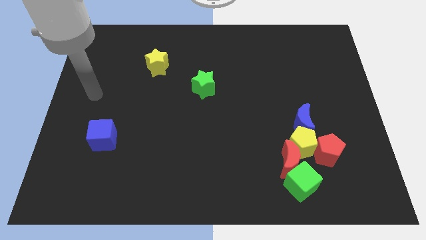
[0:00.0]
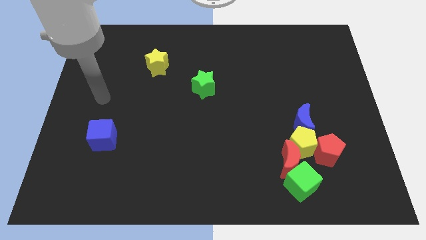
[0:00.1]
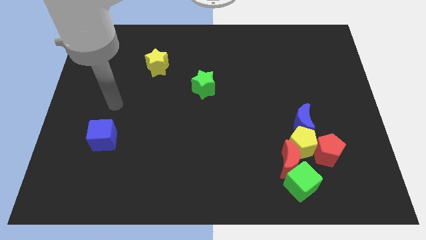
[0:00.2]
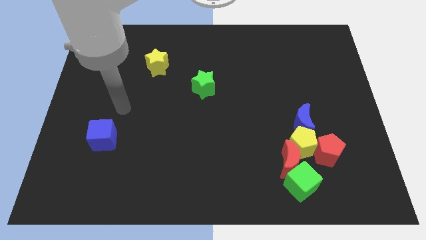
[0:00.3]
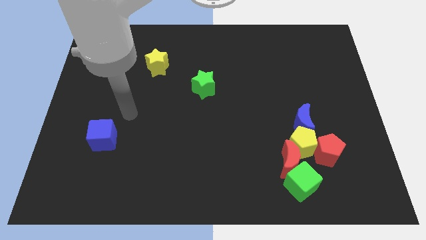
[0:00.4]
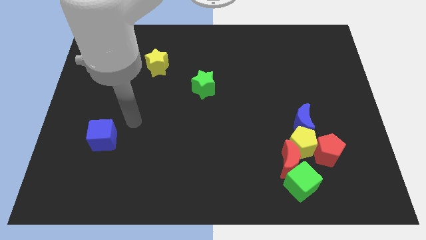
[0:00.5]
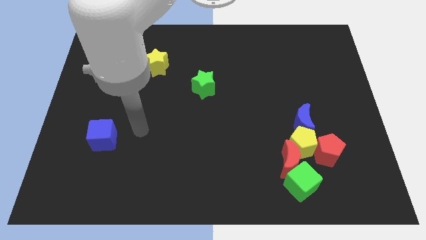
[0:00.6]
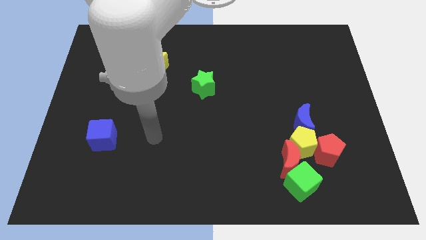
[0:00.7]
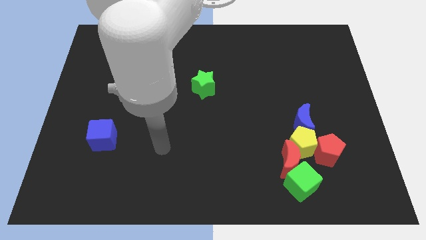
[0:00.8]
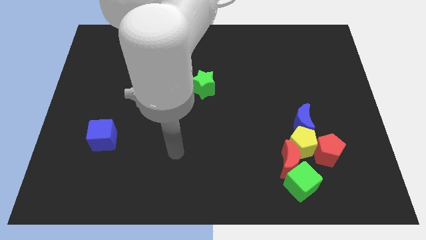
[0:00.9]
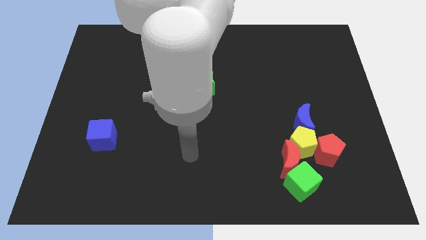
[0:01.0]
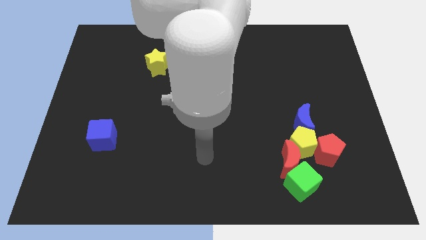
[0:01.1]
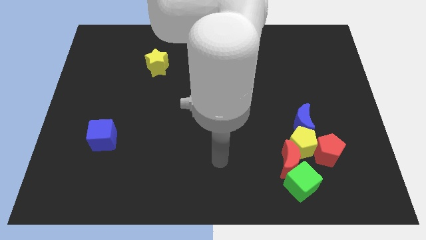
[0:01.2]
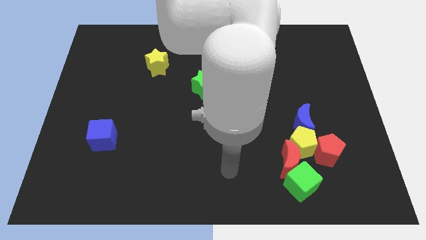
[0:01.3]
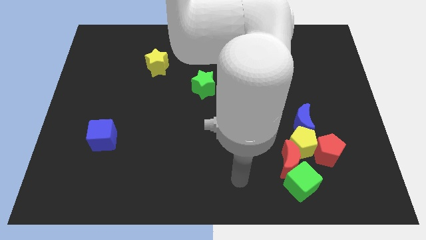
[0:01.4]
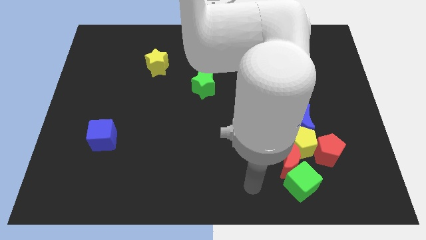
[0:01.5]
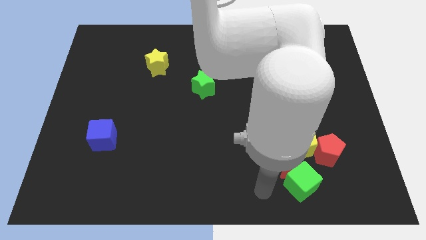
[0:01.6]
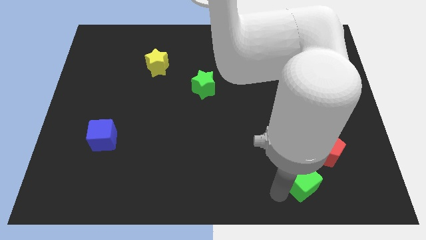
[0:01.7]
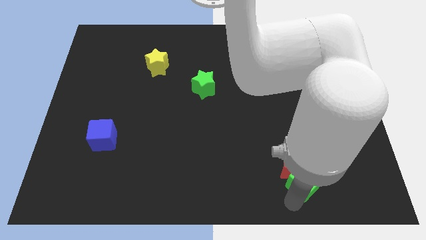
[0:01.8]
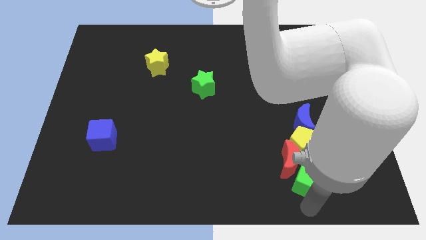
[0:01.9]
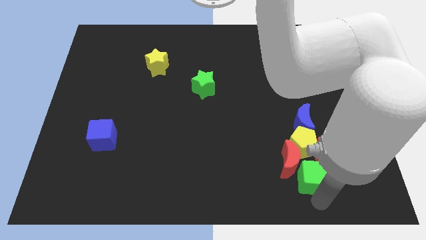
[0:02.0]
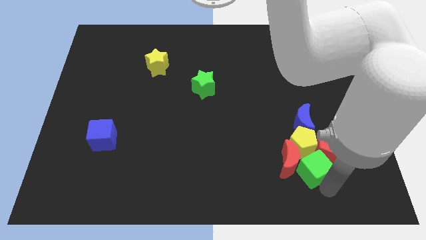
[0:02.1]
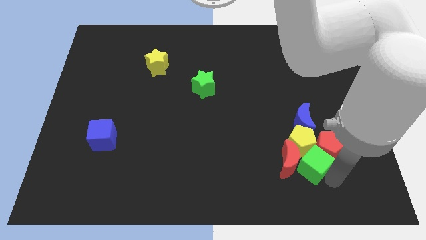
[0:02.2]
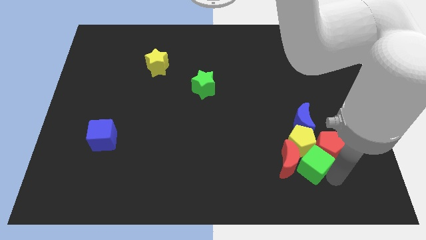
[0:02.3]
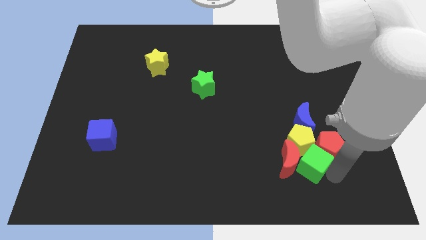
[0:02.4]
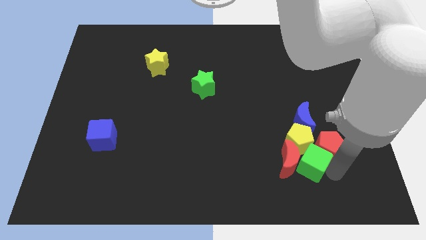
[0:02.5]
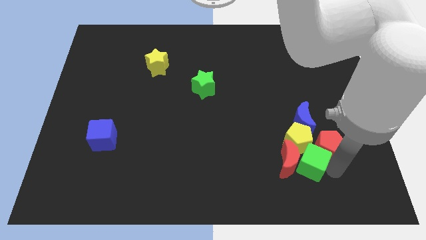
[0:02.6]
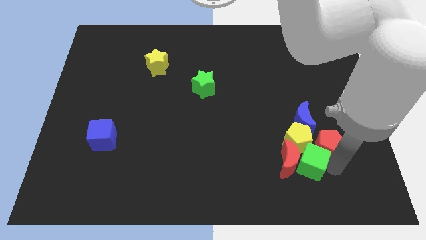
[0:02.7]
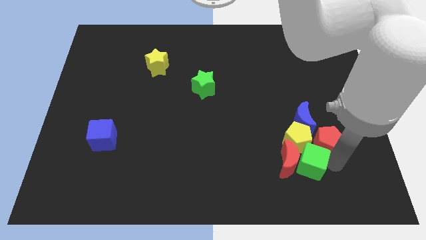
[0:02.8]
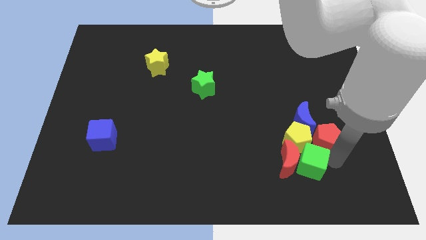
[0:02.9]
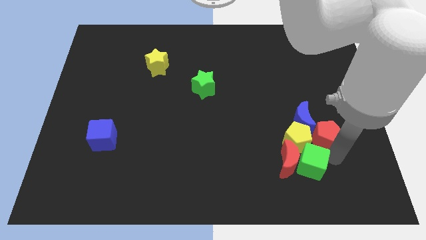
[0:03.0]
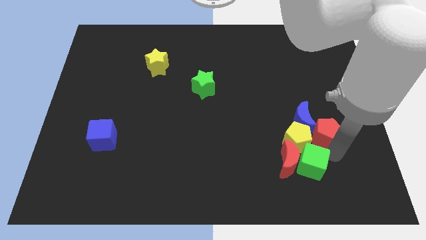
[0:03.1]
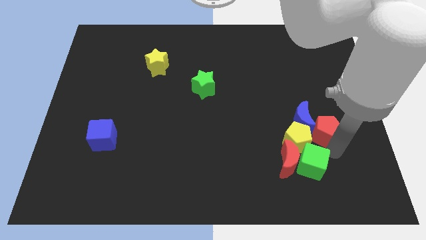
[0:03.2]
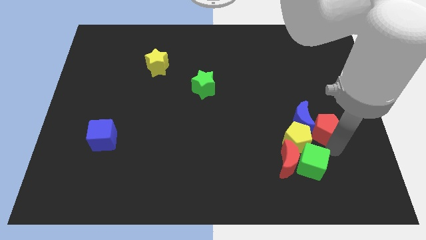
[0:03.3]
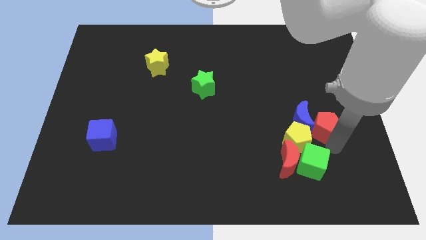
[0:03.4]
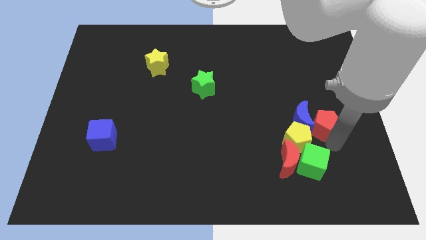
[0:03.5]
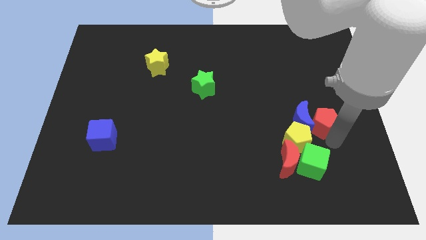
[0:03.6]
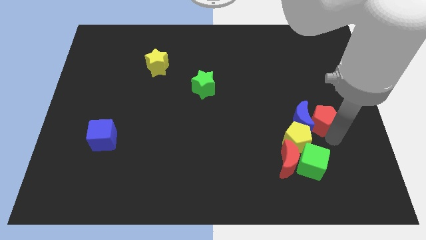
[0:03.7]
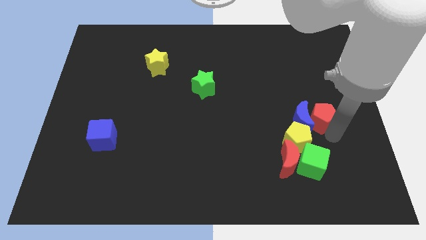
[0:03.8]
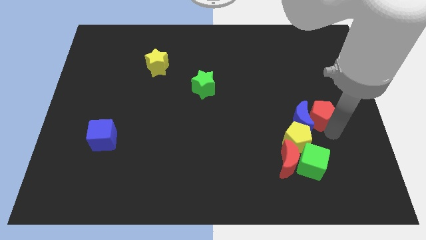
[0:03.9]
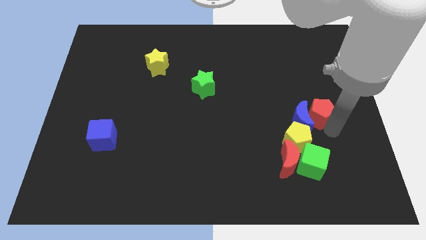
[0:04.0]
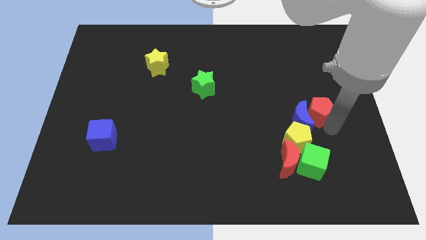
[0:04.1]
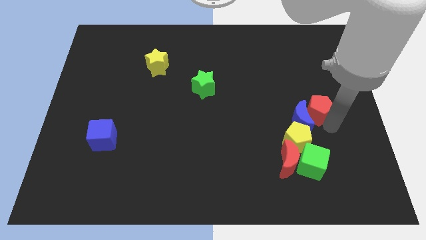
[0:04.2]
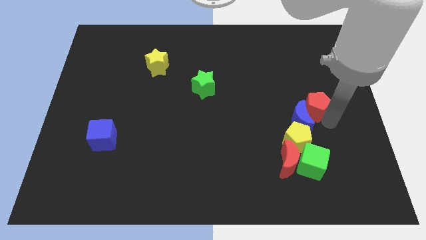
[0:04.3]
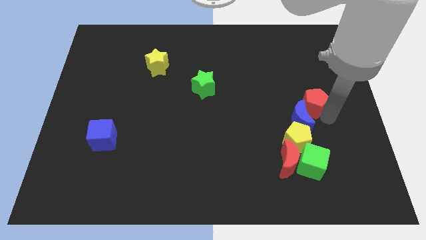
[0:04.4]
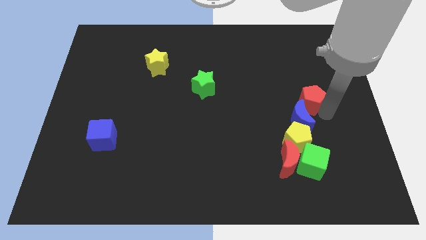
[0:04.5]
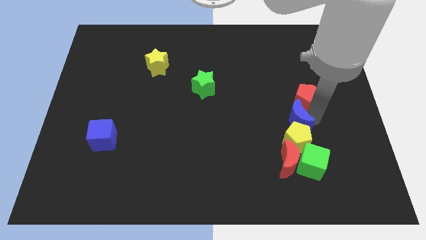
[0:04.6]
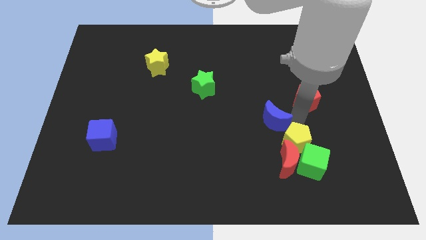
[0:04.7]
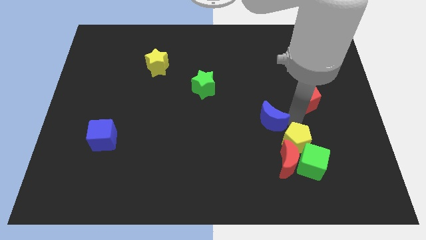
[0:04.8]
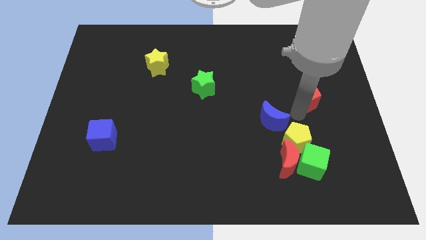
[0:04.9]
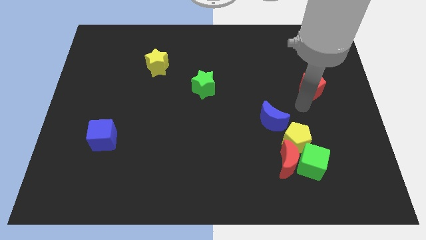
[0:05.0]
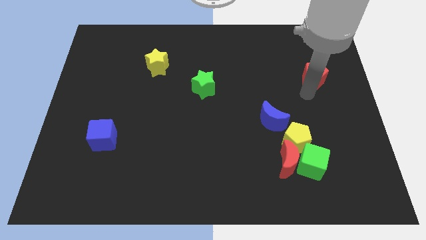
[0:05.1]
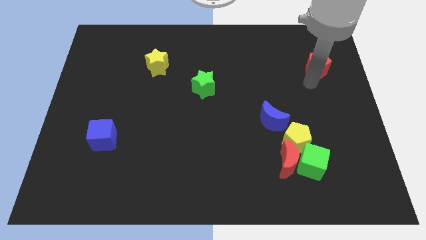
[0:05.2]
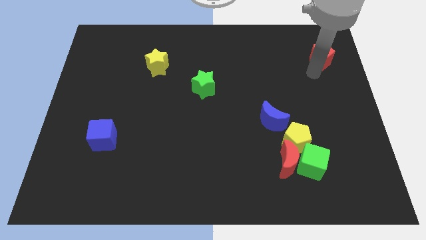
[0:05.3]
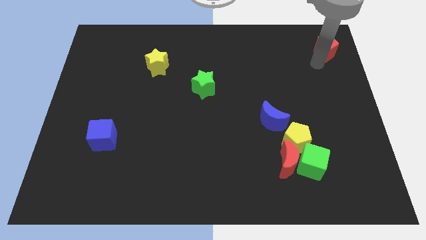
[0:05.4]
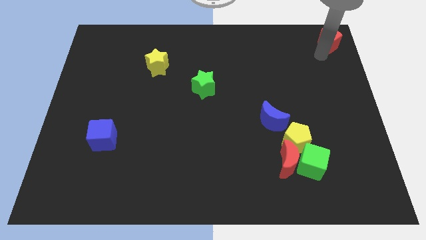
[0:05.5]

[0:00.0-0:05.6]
move the red pentagon to the upper right corner

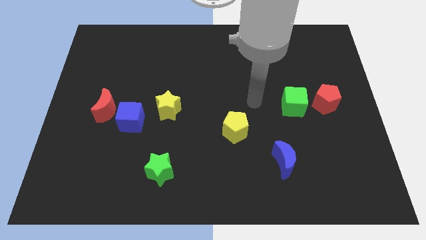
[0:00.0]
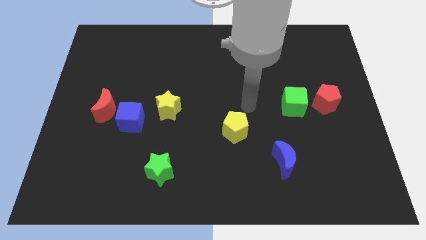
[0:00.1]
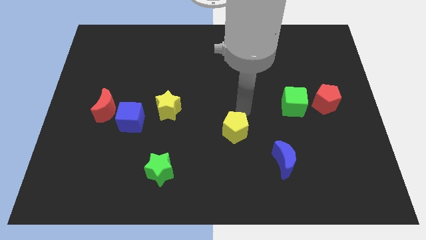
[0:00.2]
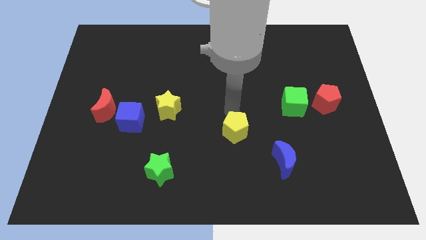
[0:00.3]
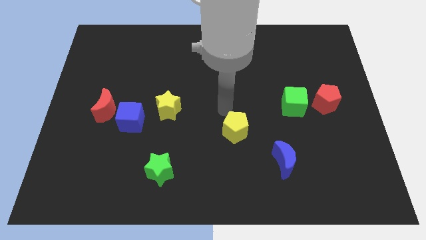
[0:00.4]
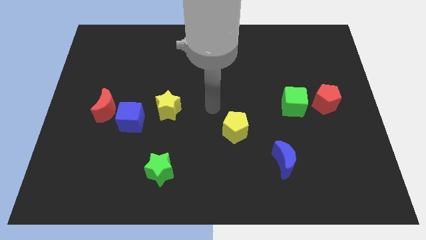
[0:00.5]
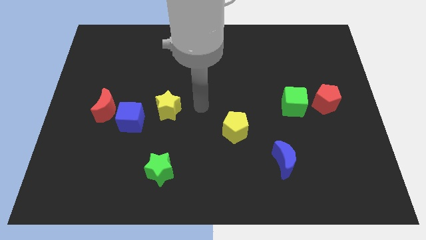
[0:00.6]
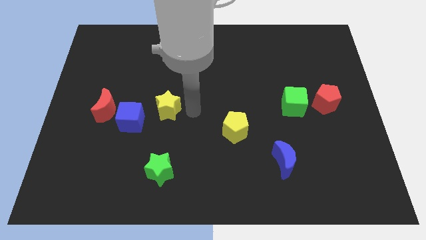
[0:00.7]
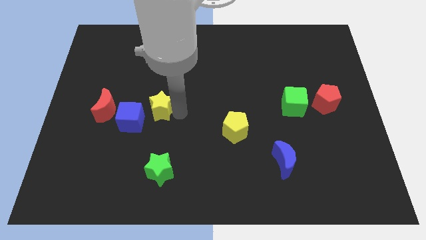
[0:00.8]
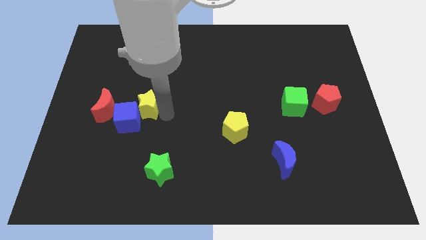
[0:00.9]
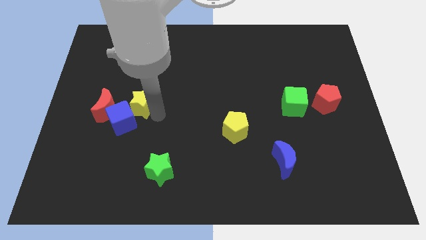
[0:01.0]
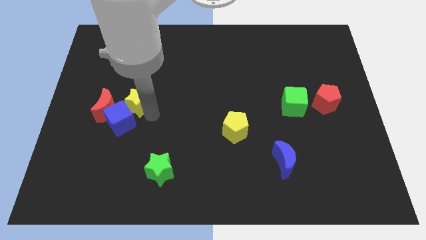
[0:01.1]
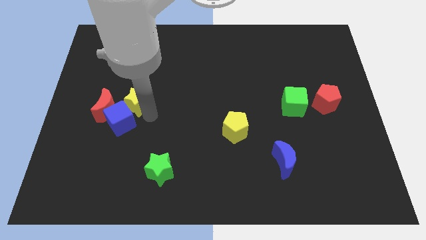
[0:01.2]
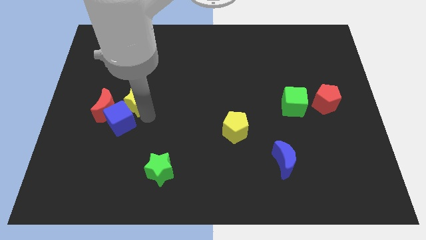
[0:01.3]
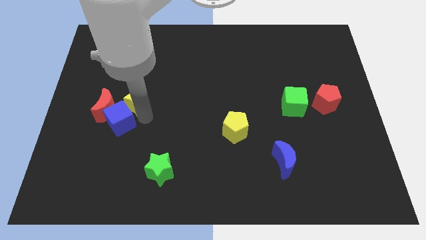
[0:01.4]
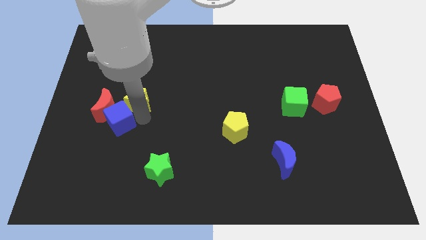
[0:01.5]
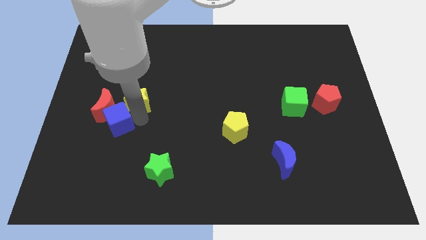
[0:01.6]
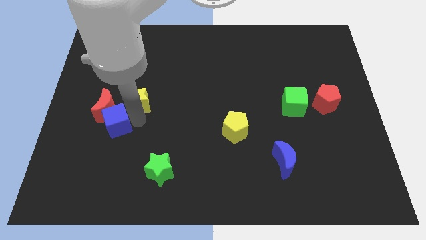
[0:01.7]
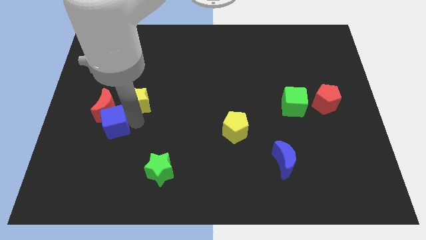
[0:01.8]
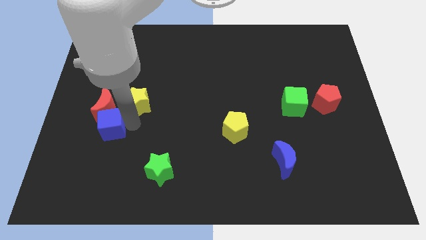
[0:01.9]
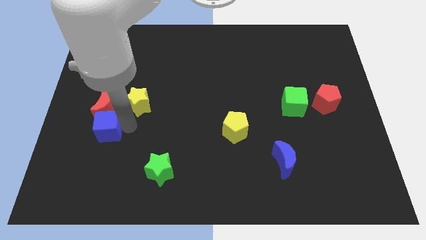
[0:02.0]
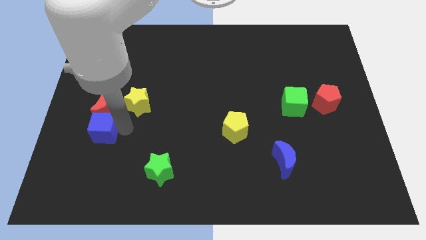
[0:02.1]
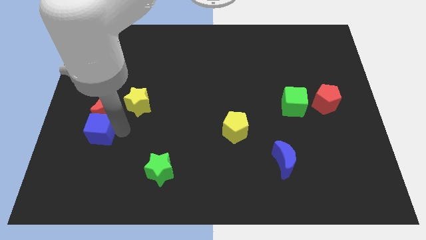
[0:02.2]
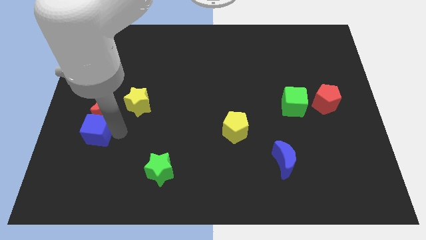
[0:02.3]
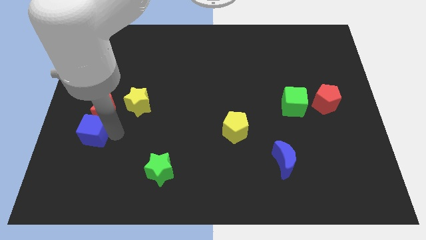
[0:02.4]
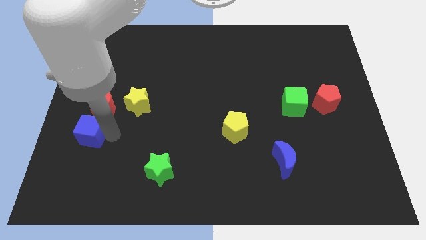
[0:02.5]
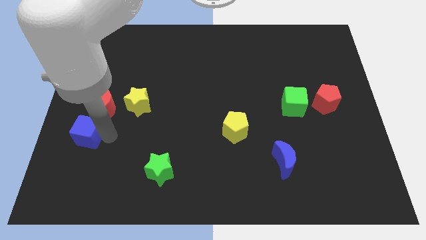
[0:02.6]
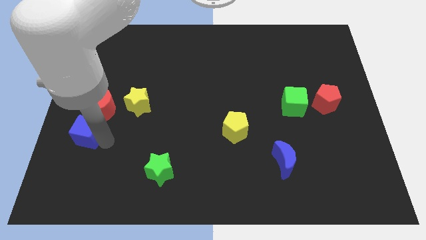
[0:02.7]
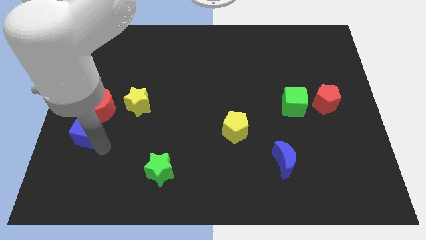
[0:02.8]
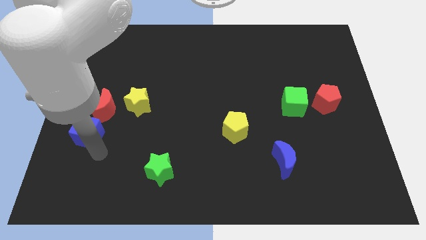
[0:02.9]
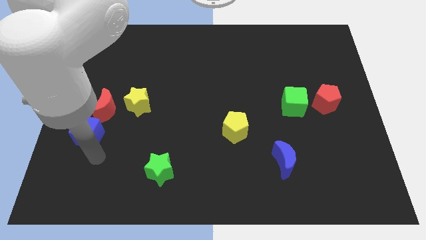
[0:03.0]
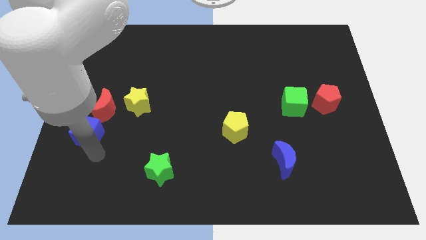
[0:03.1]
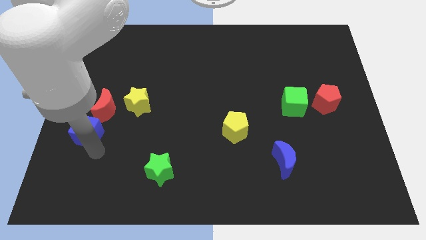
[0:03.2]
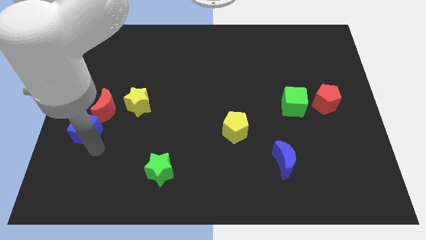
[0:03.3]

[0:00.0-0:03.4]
move the blue cube to the left side
